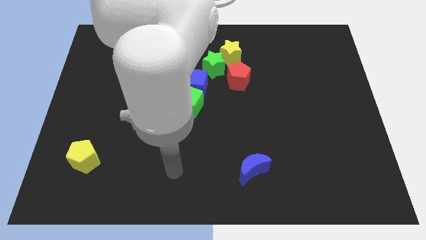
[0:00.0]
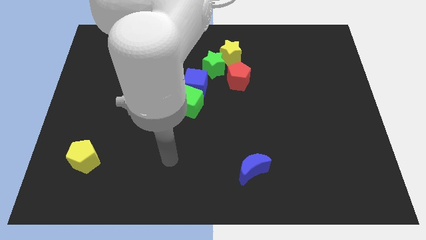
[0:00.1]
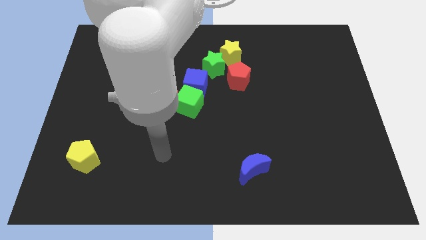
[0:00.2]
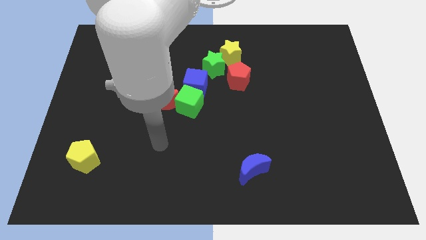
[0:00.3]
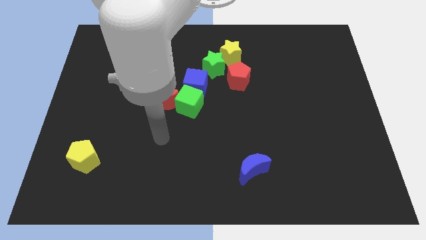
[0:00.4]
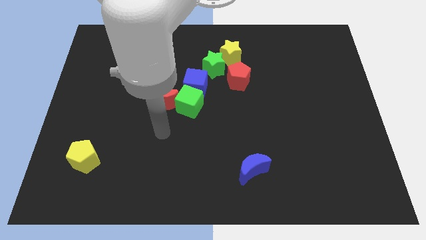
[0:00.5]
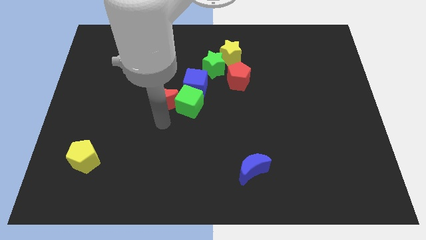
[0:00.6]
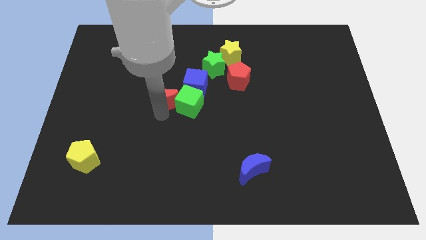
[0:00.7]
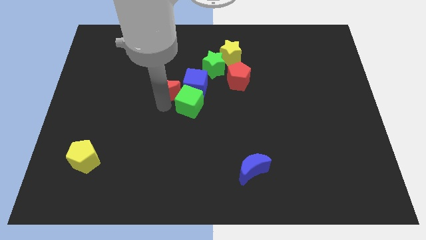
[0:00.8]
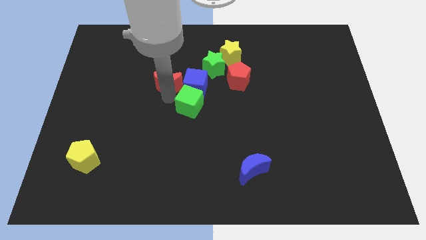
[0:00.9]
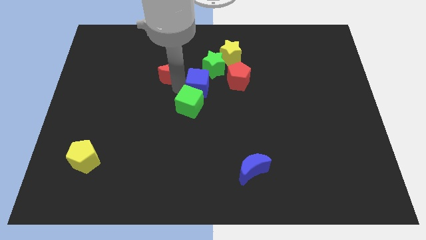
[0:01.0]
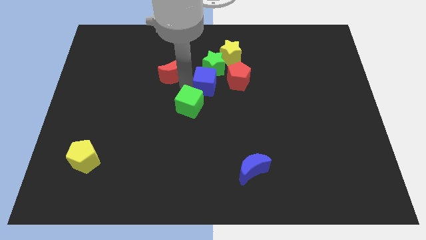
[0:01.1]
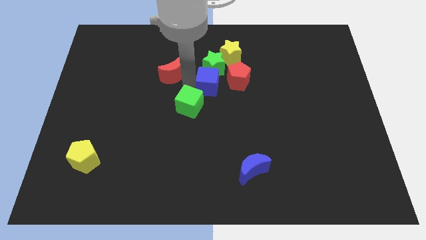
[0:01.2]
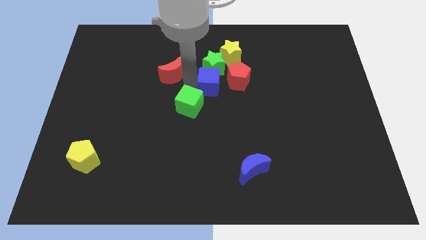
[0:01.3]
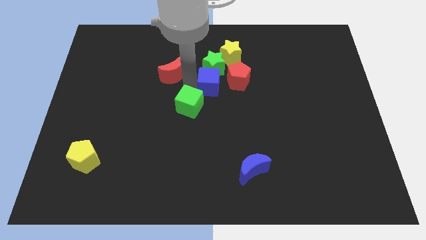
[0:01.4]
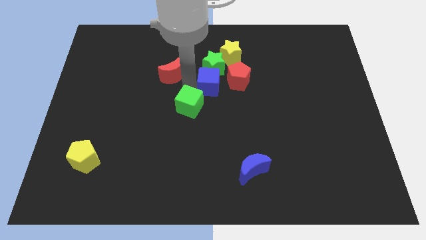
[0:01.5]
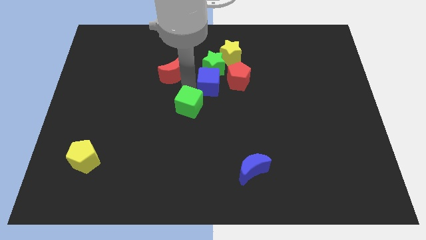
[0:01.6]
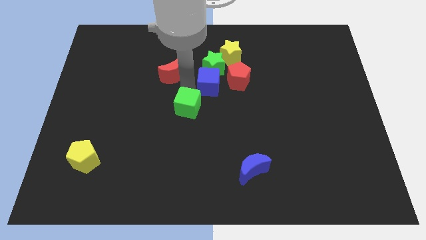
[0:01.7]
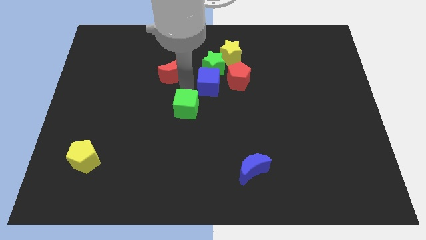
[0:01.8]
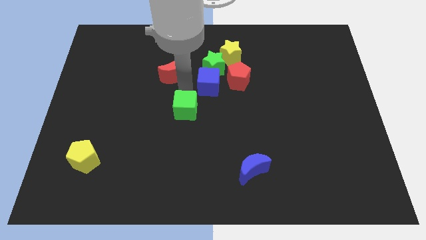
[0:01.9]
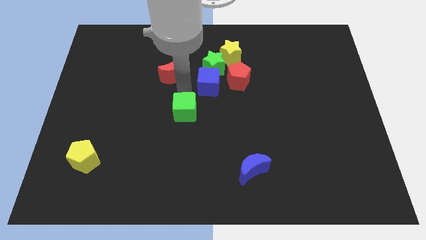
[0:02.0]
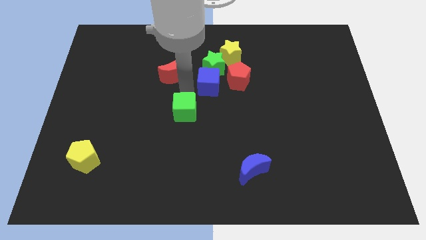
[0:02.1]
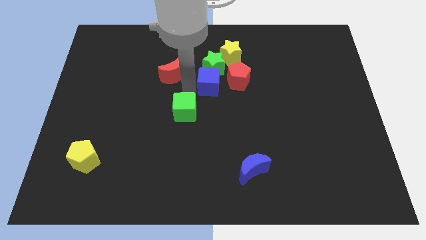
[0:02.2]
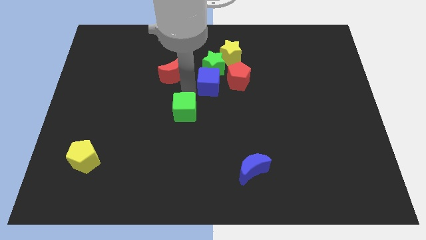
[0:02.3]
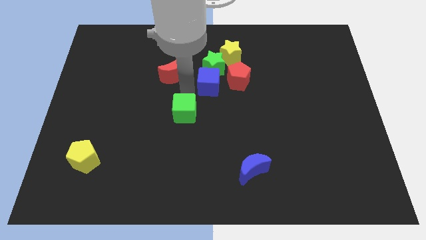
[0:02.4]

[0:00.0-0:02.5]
move the green cube away from the blue cube and red moon

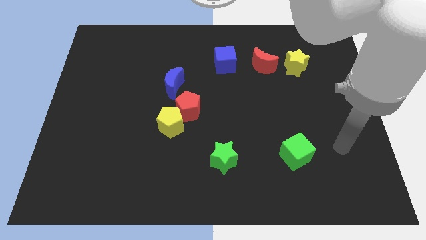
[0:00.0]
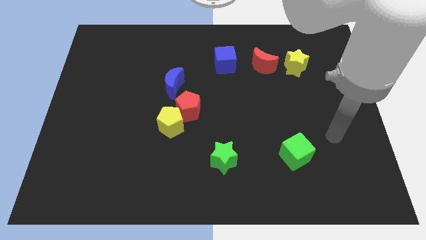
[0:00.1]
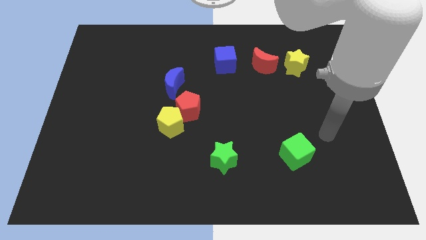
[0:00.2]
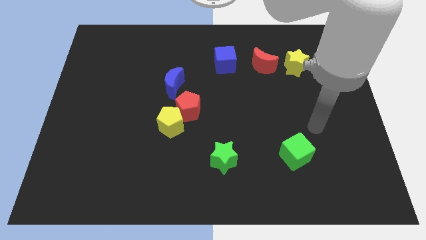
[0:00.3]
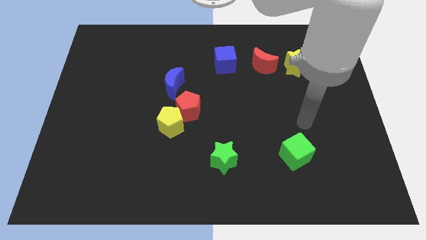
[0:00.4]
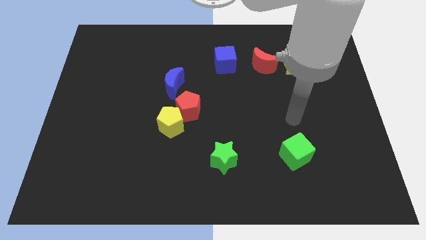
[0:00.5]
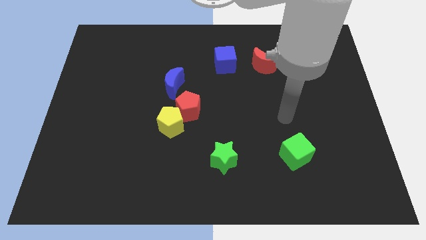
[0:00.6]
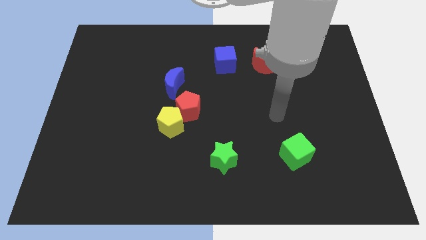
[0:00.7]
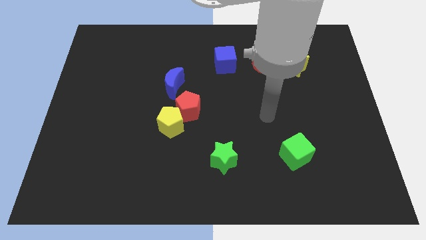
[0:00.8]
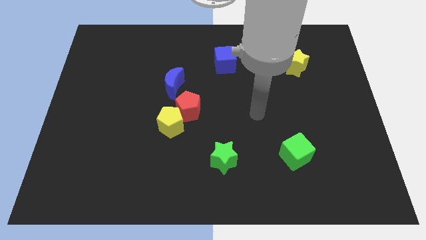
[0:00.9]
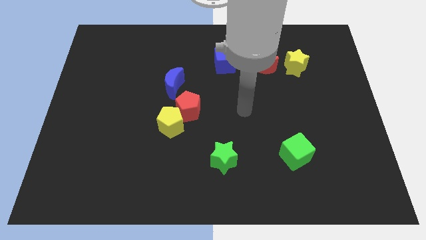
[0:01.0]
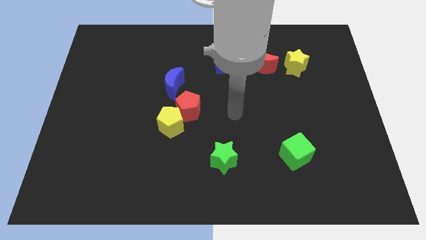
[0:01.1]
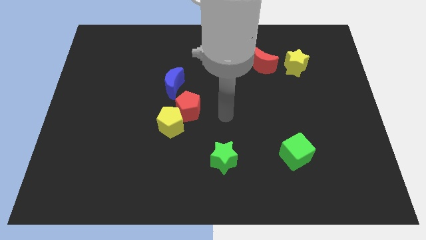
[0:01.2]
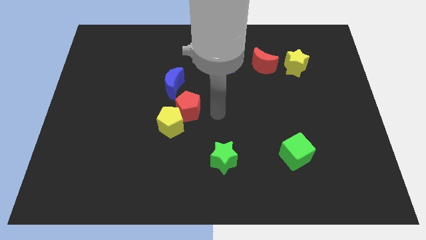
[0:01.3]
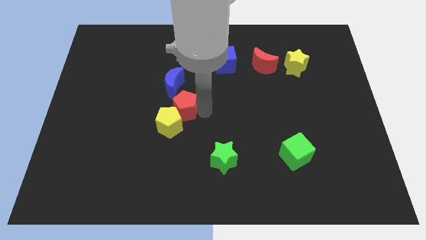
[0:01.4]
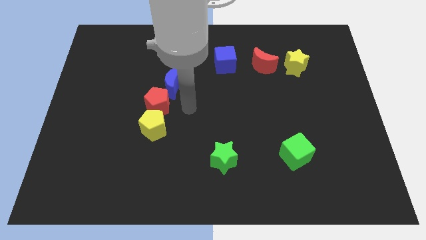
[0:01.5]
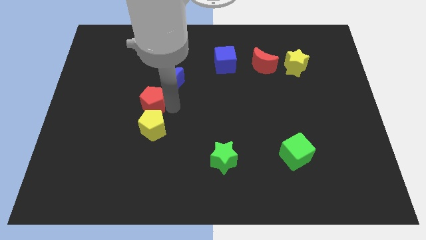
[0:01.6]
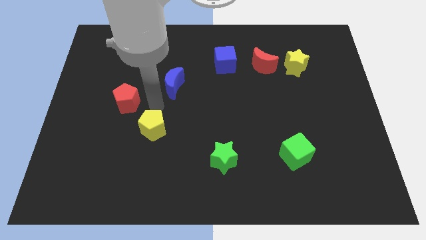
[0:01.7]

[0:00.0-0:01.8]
move the yellow pentagon away from the red pentagon

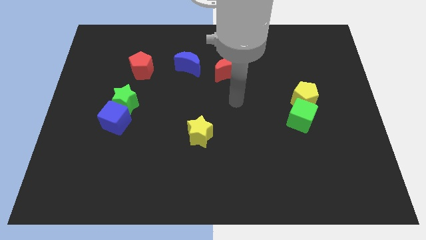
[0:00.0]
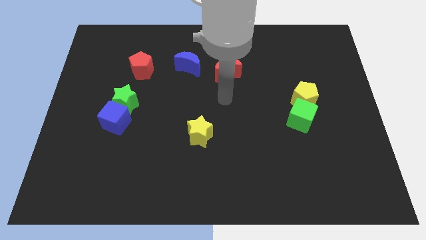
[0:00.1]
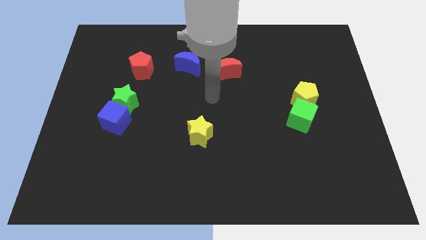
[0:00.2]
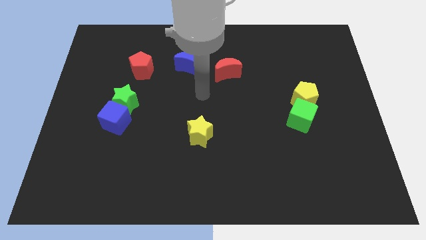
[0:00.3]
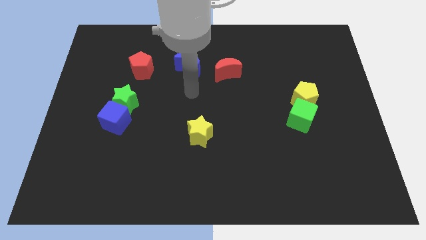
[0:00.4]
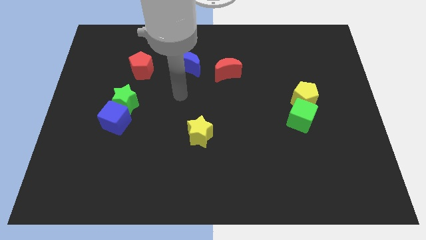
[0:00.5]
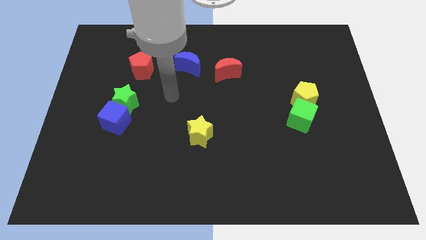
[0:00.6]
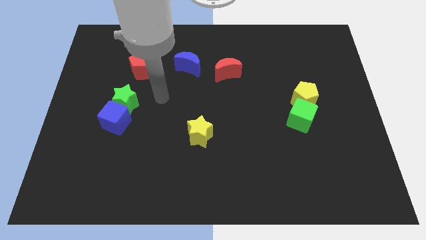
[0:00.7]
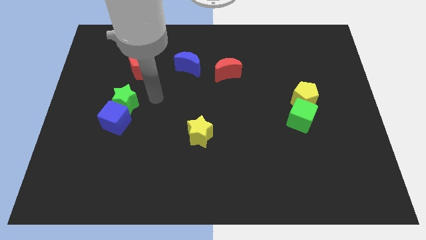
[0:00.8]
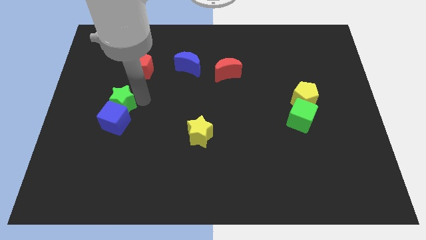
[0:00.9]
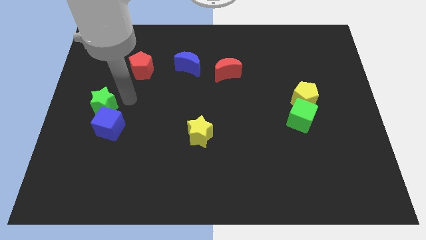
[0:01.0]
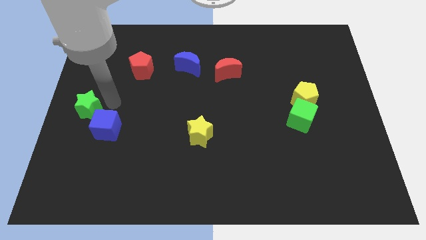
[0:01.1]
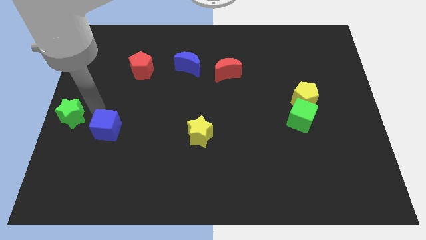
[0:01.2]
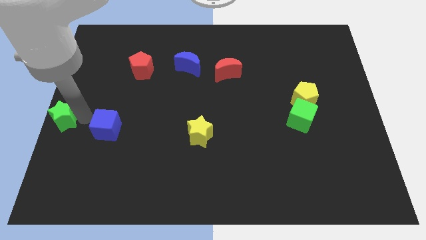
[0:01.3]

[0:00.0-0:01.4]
move the blue cube away from the green star

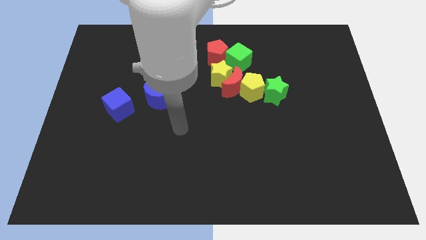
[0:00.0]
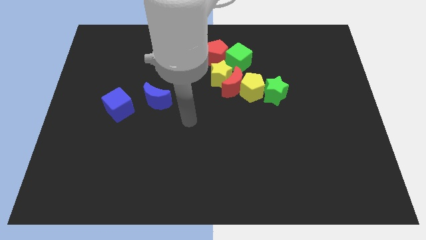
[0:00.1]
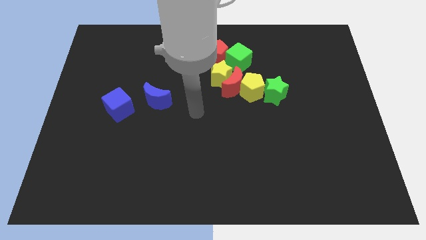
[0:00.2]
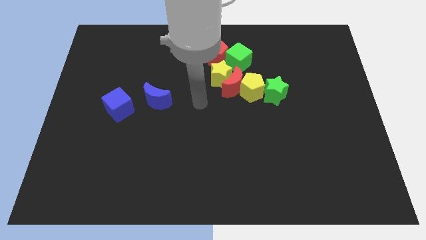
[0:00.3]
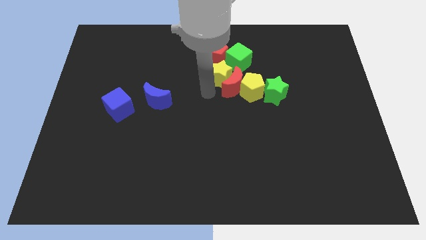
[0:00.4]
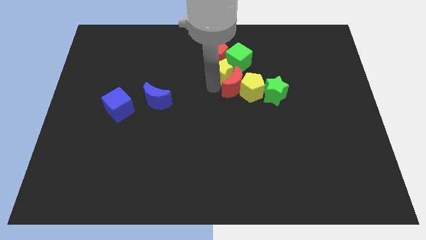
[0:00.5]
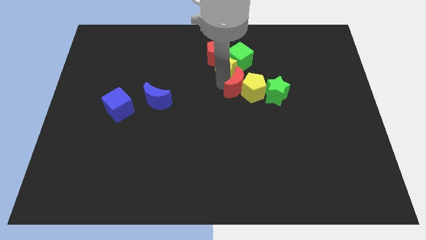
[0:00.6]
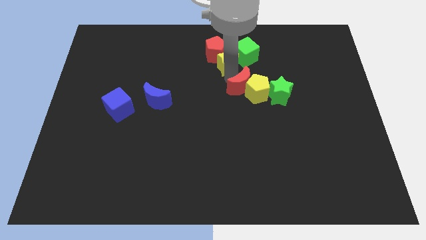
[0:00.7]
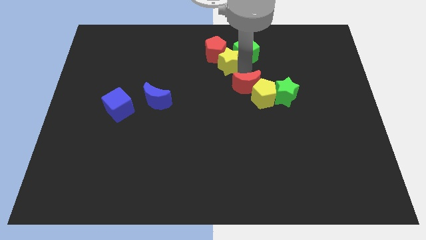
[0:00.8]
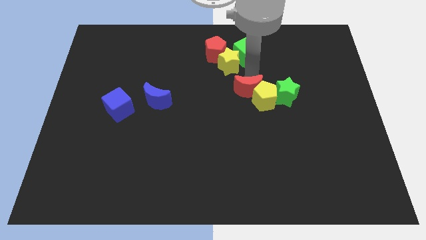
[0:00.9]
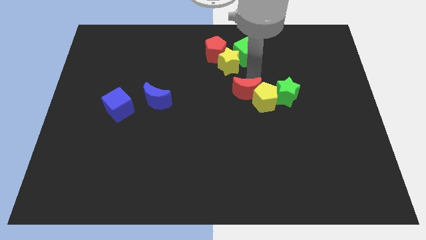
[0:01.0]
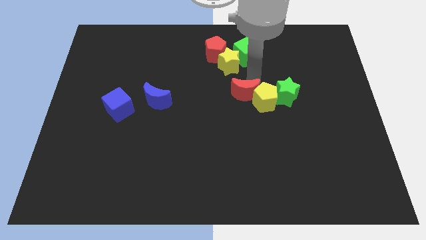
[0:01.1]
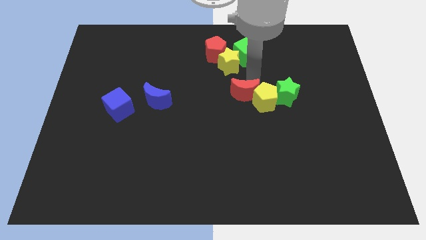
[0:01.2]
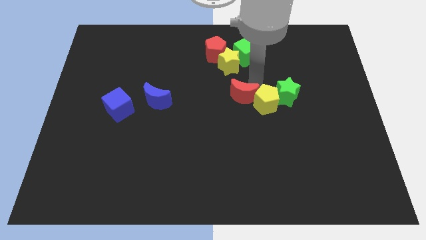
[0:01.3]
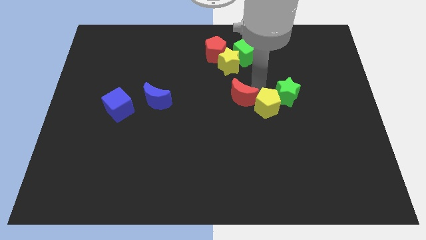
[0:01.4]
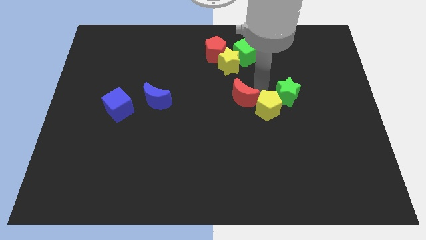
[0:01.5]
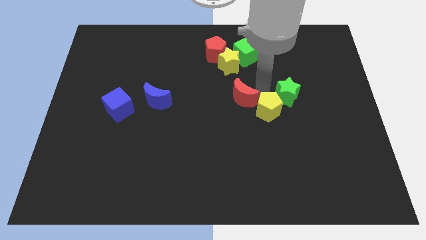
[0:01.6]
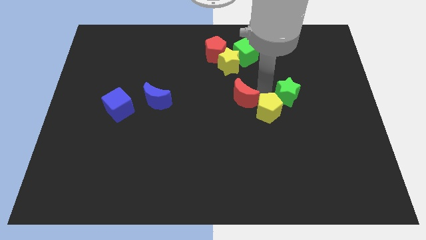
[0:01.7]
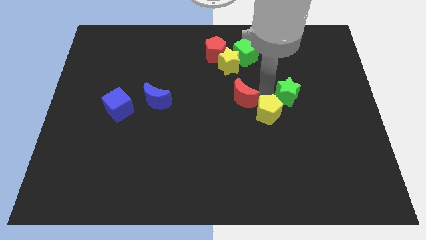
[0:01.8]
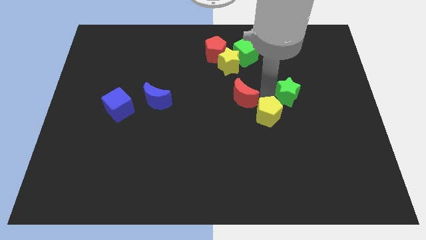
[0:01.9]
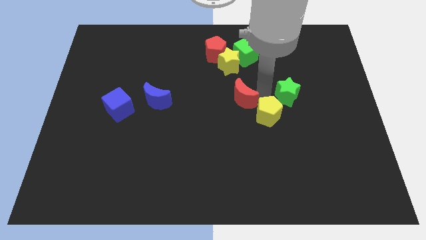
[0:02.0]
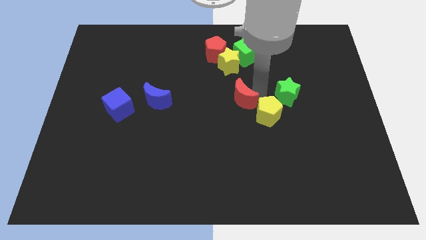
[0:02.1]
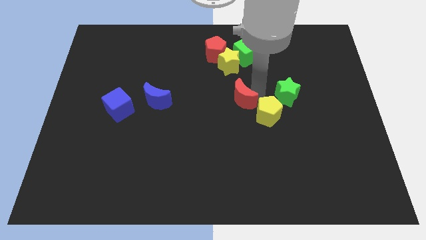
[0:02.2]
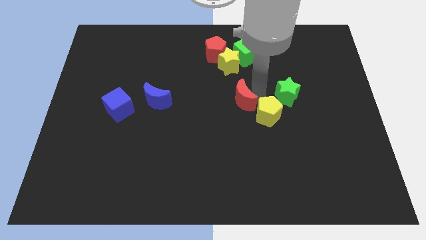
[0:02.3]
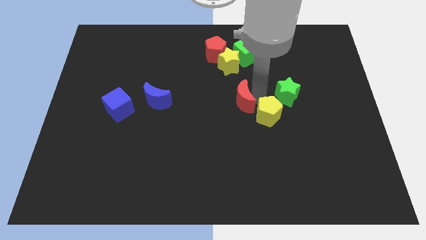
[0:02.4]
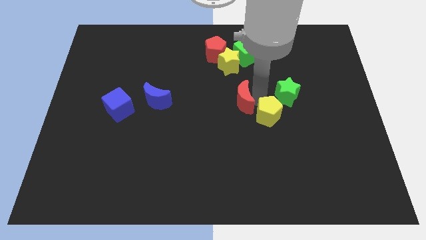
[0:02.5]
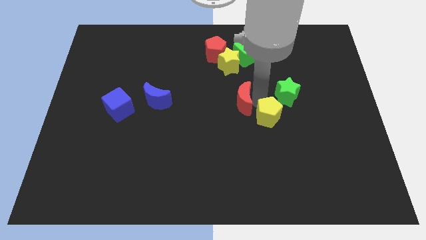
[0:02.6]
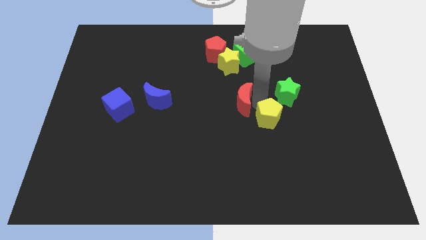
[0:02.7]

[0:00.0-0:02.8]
separate the yellow pentagon from the clump

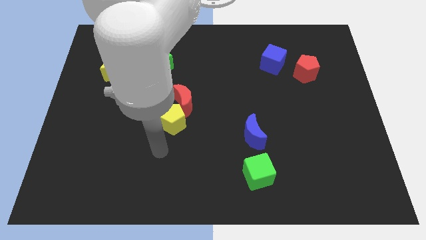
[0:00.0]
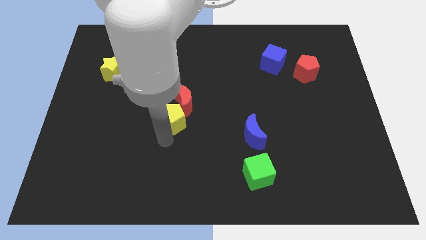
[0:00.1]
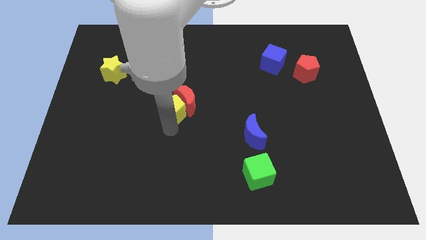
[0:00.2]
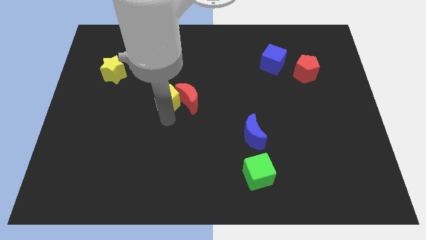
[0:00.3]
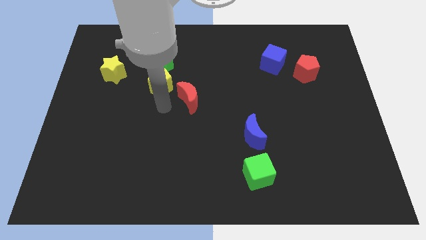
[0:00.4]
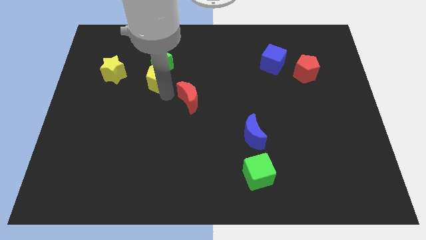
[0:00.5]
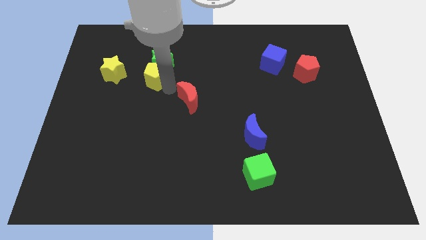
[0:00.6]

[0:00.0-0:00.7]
separate the red moon from the yellow pentagon
